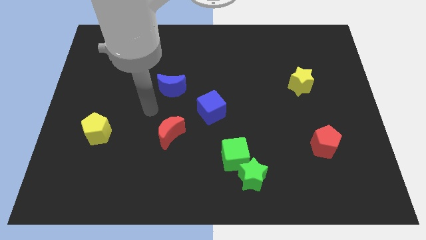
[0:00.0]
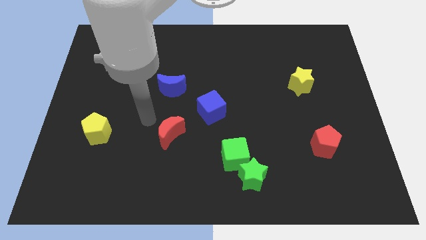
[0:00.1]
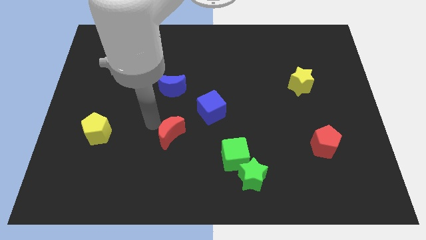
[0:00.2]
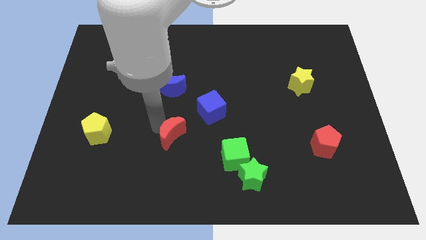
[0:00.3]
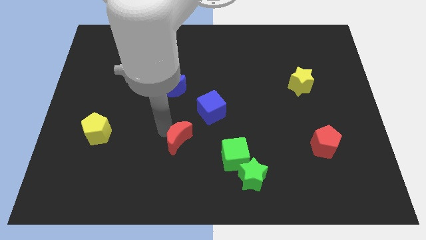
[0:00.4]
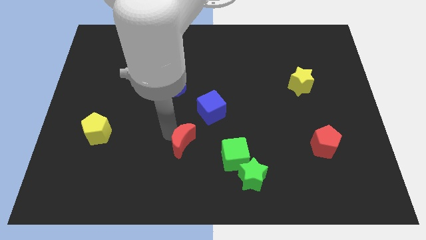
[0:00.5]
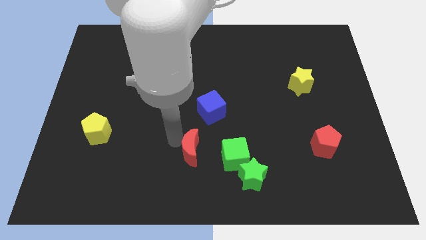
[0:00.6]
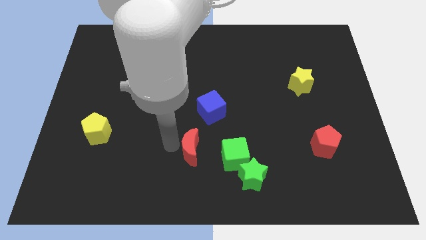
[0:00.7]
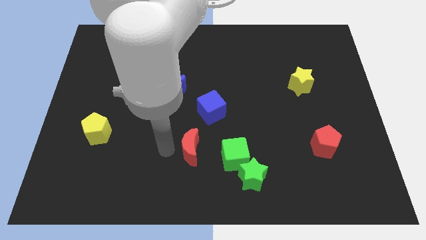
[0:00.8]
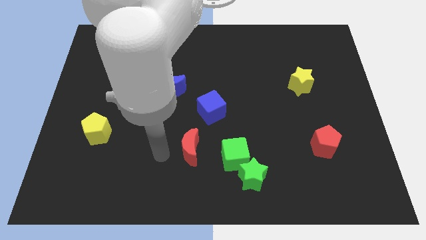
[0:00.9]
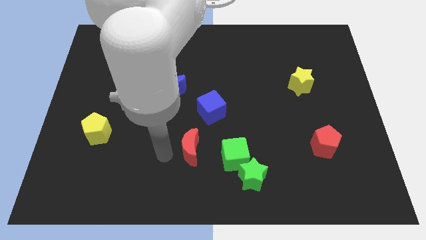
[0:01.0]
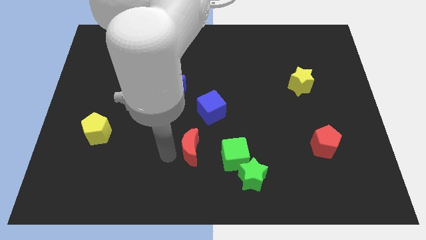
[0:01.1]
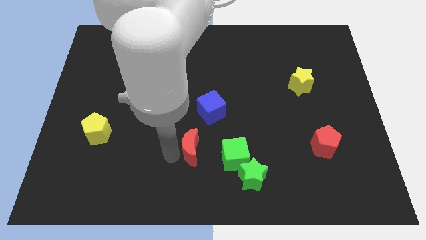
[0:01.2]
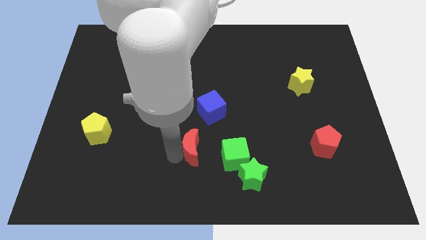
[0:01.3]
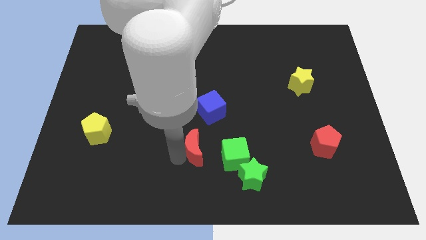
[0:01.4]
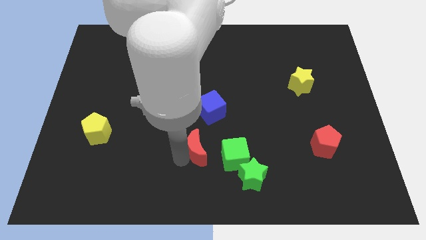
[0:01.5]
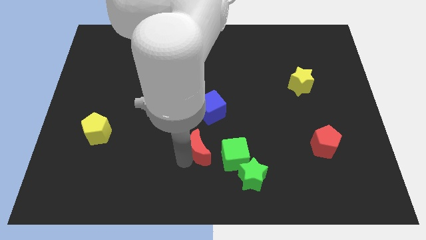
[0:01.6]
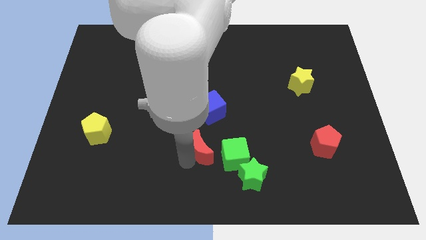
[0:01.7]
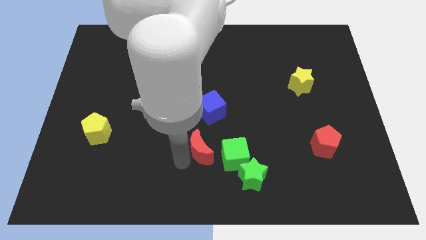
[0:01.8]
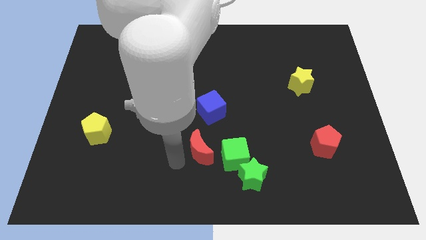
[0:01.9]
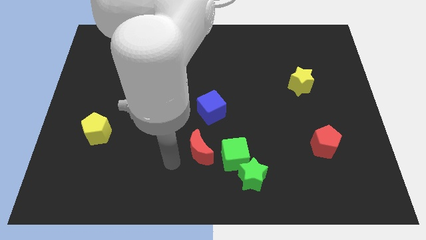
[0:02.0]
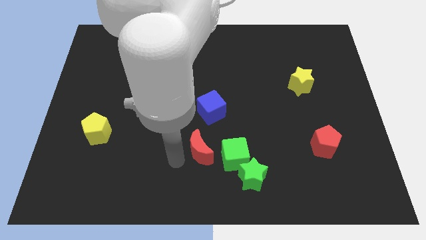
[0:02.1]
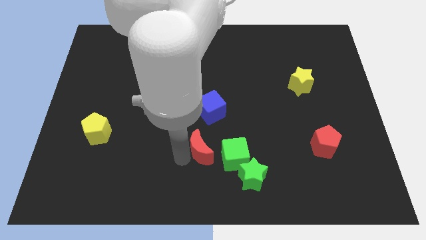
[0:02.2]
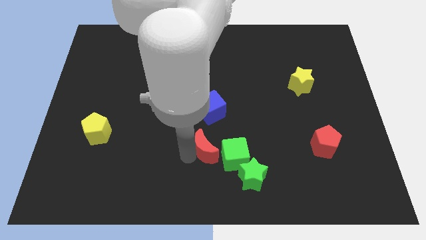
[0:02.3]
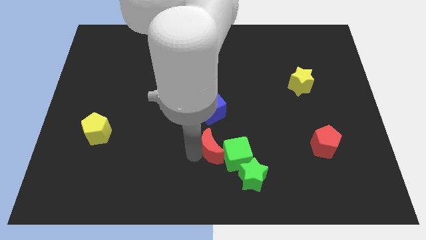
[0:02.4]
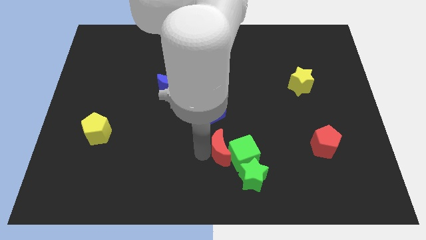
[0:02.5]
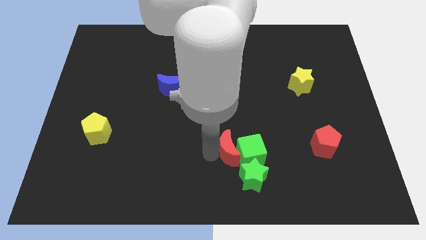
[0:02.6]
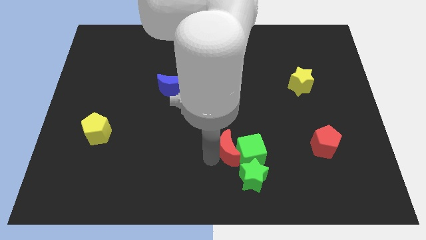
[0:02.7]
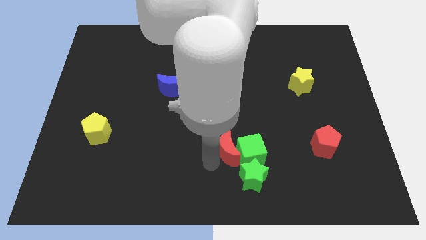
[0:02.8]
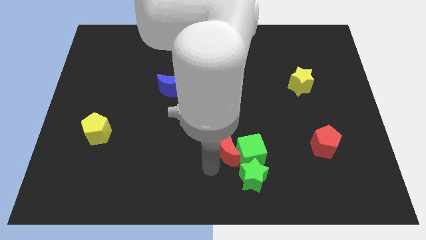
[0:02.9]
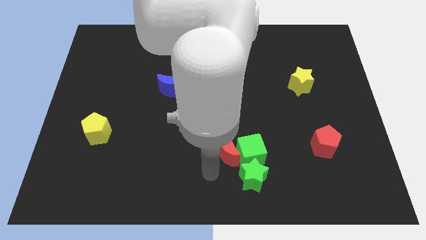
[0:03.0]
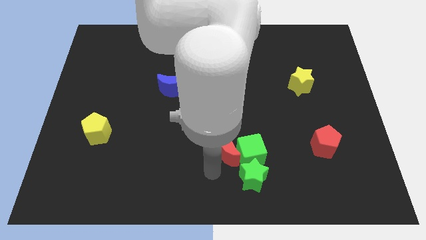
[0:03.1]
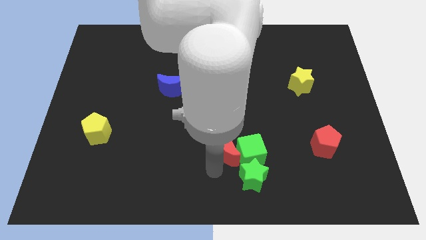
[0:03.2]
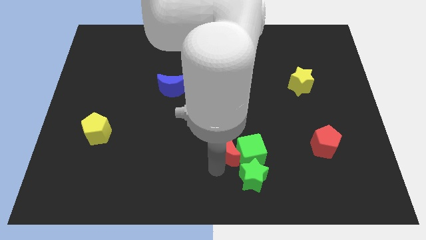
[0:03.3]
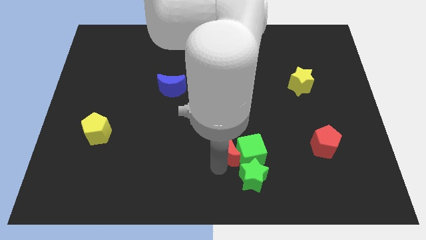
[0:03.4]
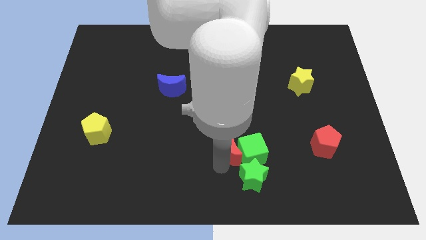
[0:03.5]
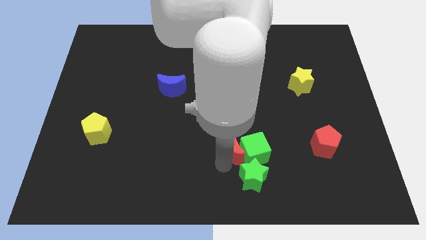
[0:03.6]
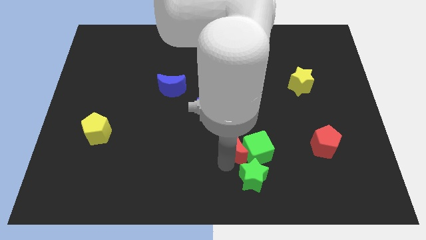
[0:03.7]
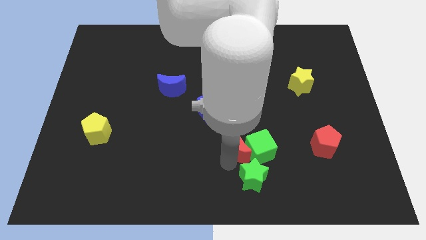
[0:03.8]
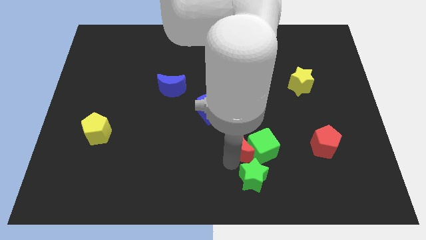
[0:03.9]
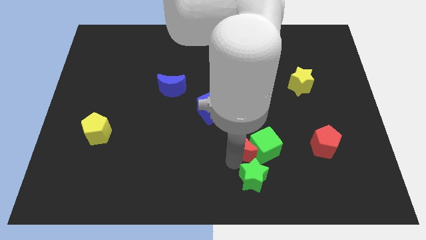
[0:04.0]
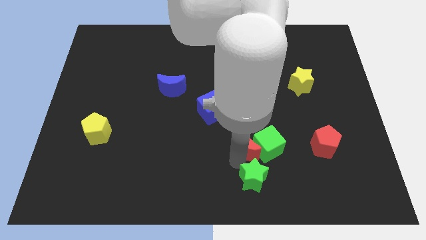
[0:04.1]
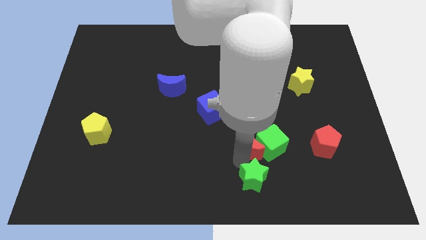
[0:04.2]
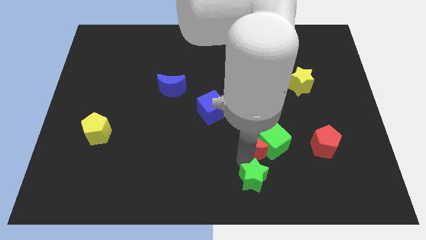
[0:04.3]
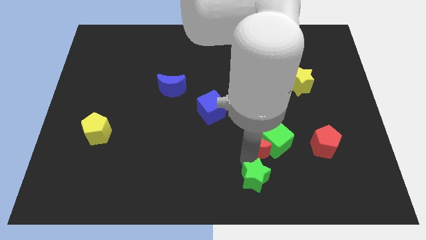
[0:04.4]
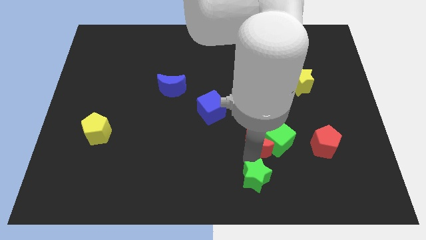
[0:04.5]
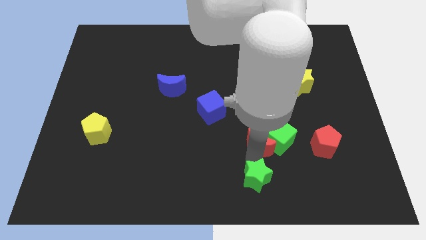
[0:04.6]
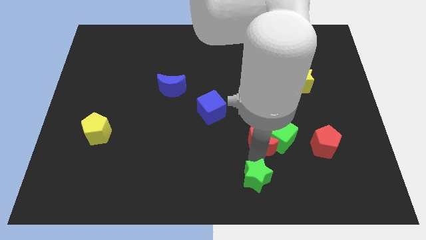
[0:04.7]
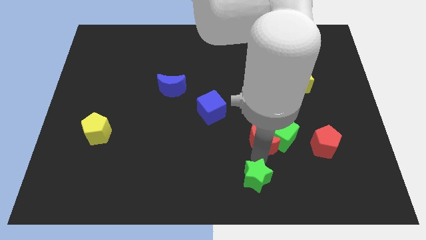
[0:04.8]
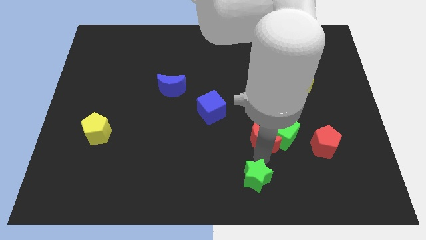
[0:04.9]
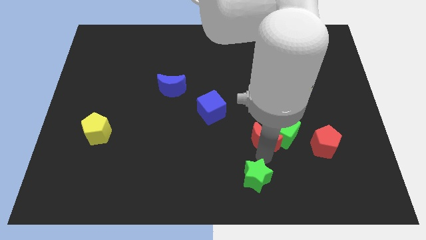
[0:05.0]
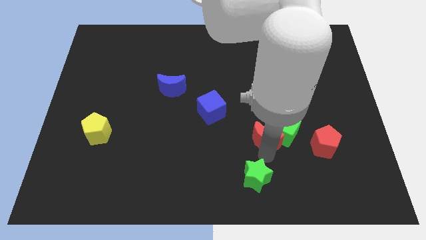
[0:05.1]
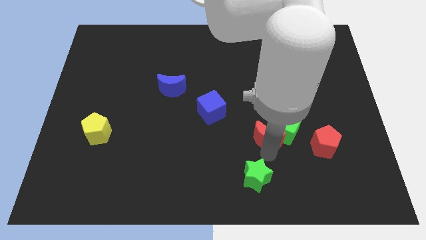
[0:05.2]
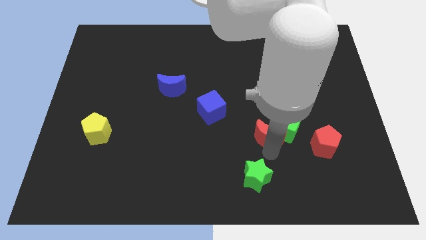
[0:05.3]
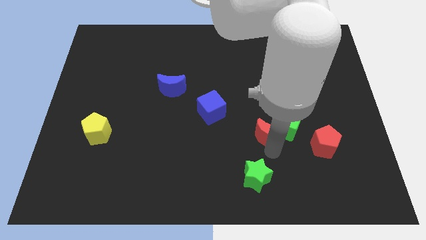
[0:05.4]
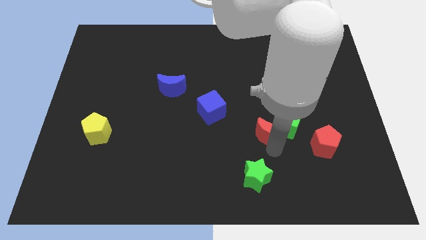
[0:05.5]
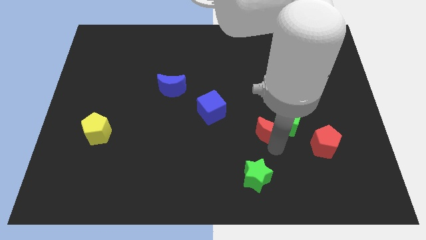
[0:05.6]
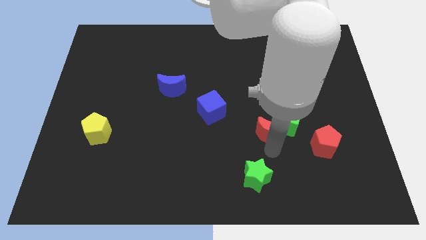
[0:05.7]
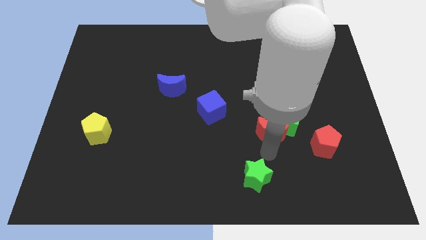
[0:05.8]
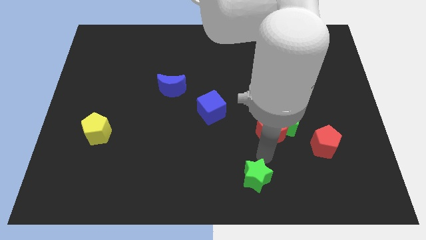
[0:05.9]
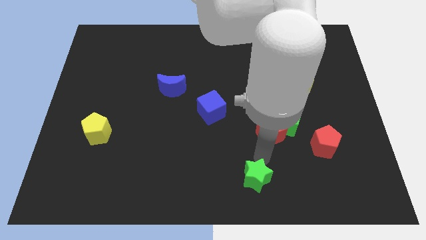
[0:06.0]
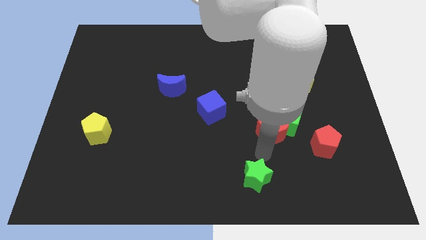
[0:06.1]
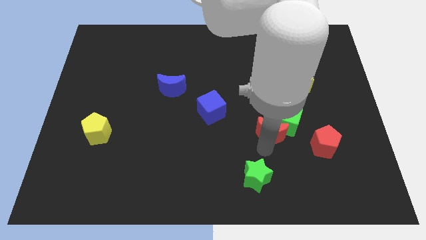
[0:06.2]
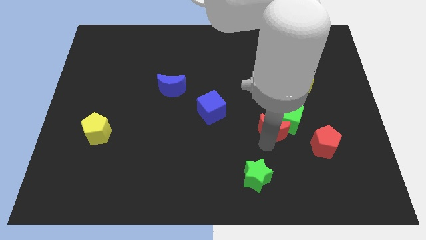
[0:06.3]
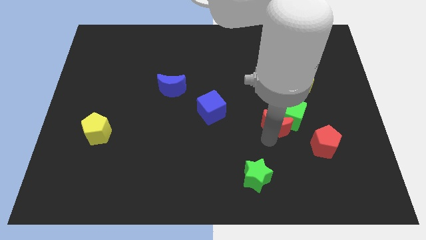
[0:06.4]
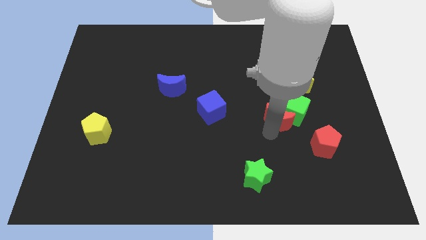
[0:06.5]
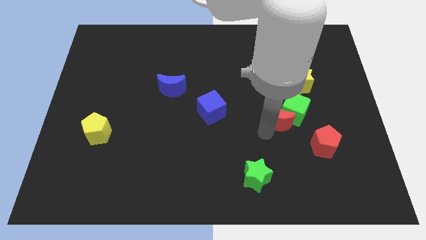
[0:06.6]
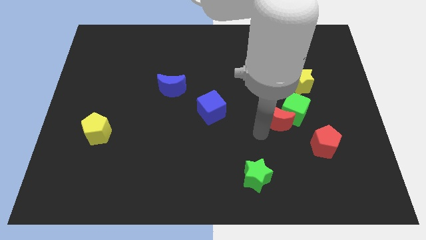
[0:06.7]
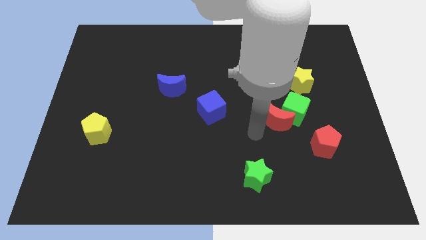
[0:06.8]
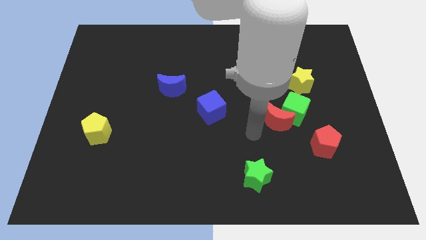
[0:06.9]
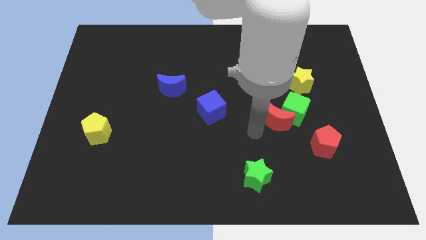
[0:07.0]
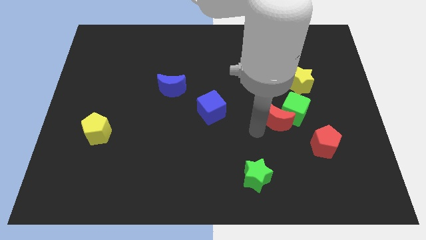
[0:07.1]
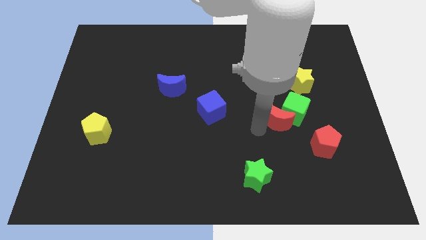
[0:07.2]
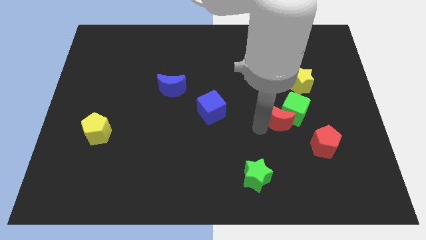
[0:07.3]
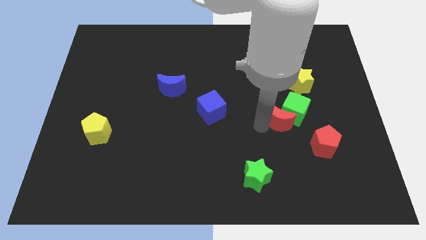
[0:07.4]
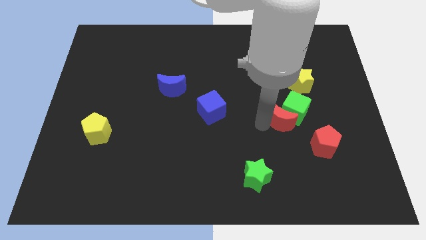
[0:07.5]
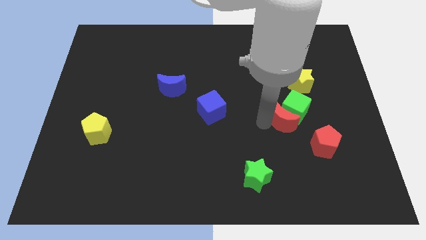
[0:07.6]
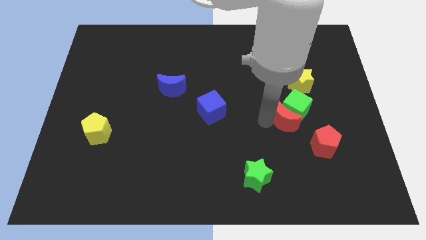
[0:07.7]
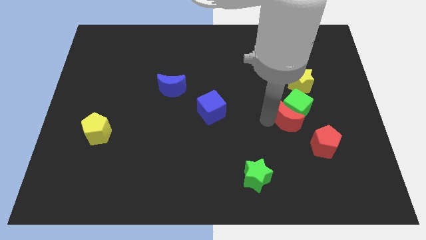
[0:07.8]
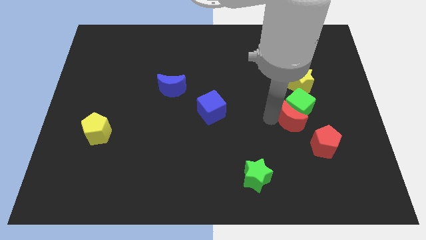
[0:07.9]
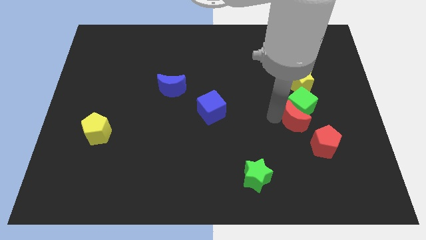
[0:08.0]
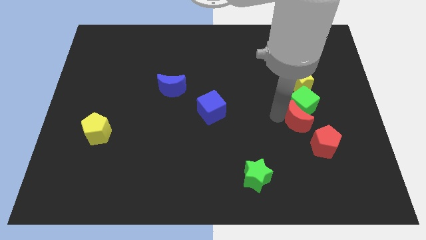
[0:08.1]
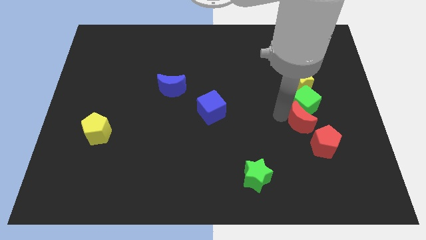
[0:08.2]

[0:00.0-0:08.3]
put the red moon above the red pentagon

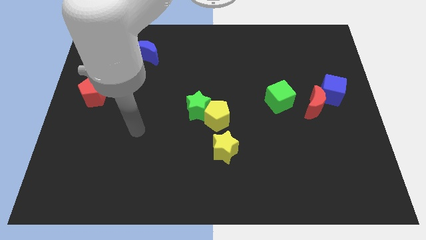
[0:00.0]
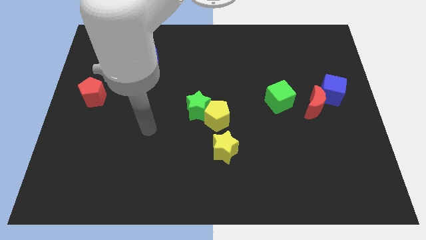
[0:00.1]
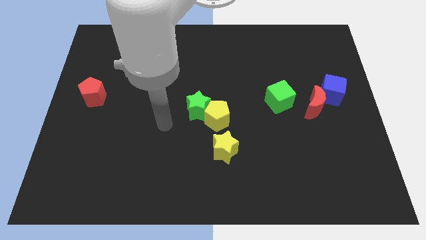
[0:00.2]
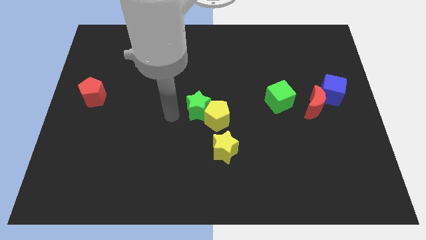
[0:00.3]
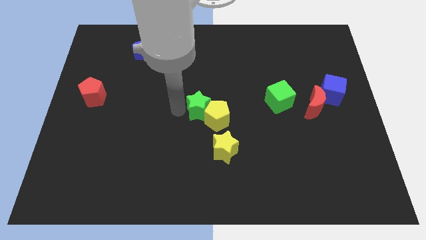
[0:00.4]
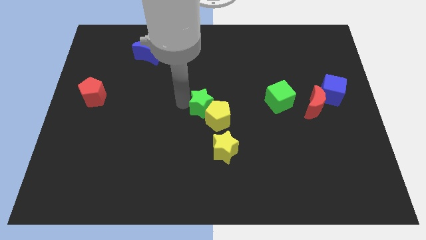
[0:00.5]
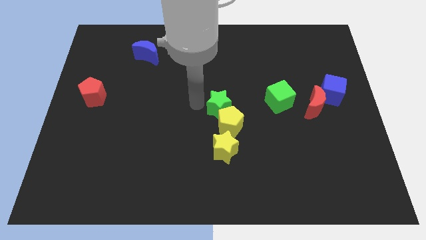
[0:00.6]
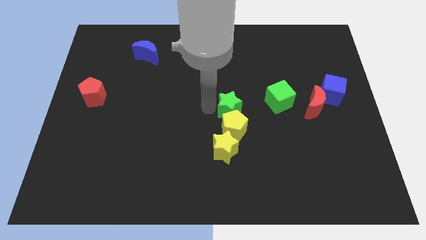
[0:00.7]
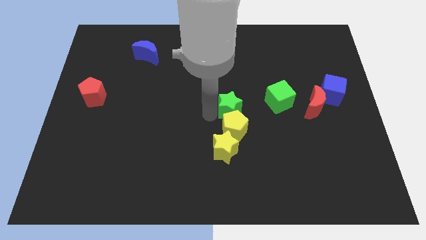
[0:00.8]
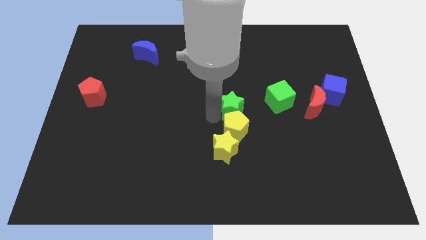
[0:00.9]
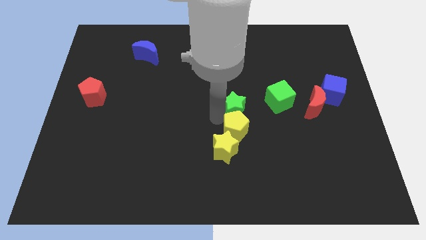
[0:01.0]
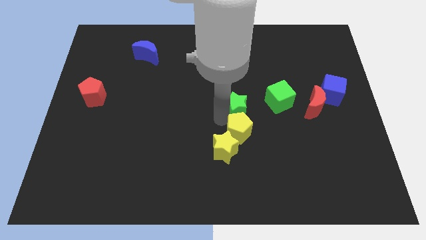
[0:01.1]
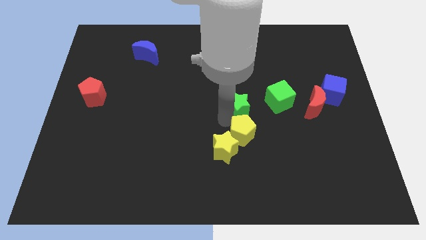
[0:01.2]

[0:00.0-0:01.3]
move the yellow pentagon right of the yellow star
